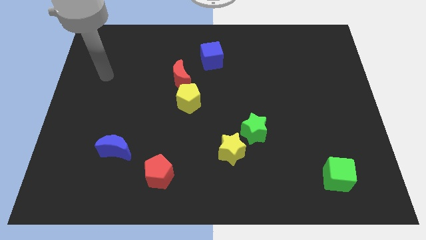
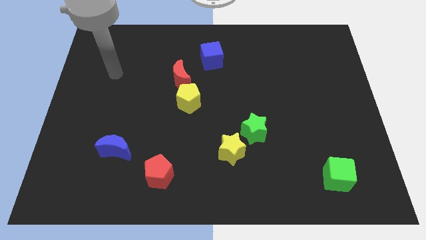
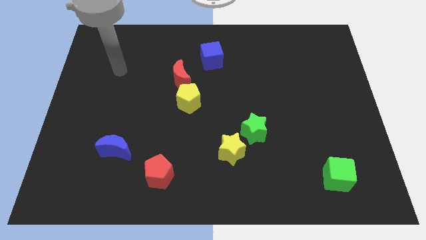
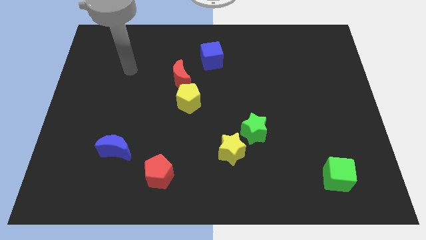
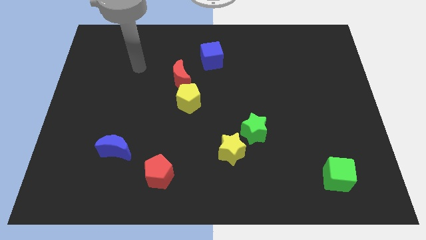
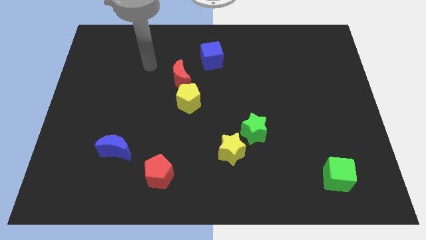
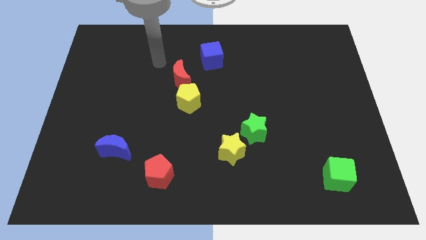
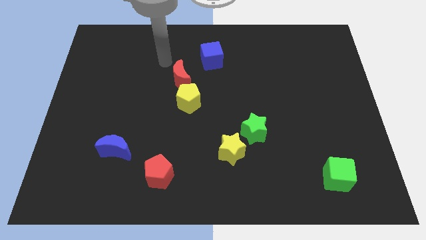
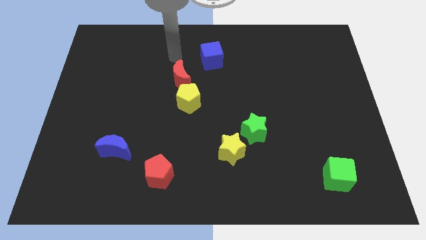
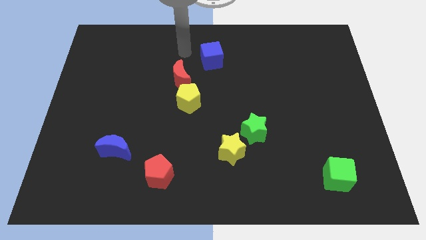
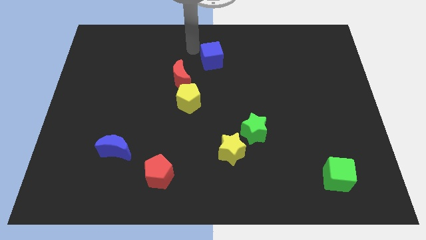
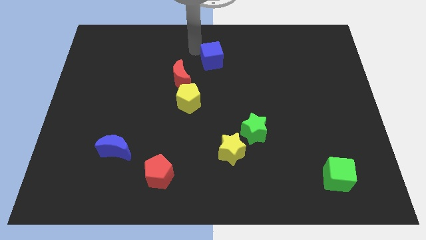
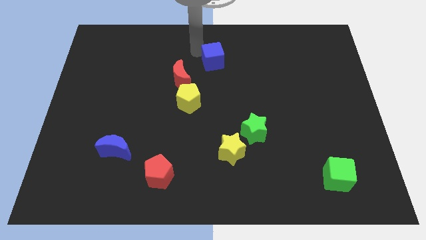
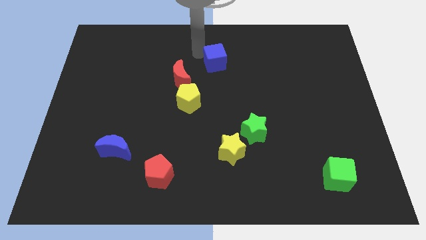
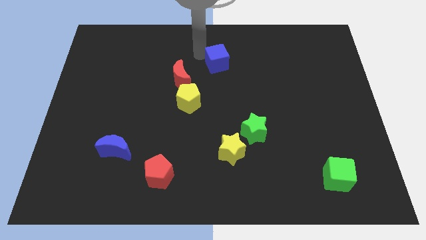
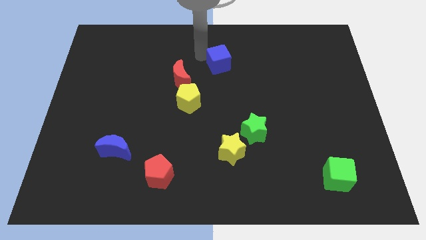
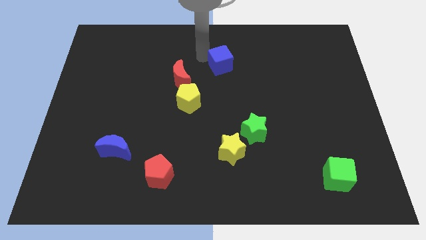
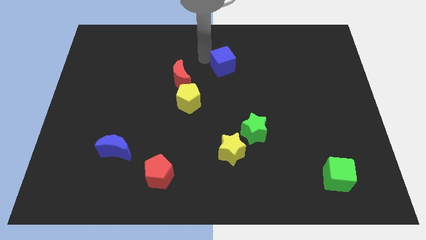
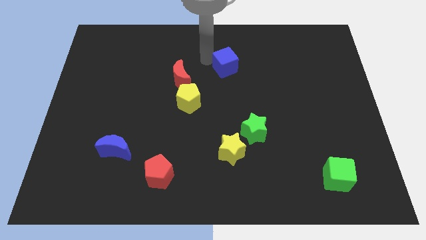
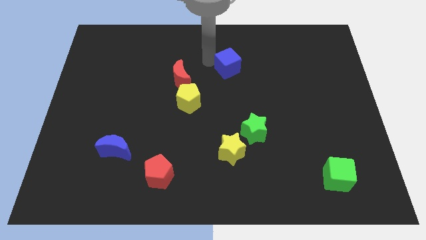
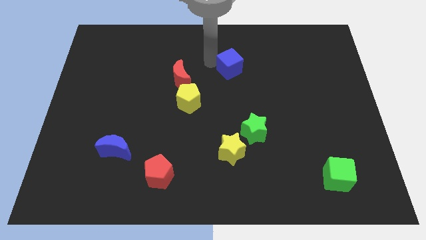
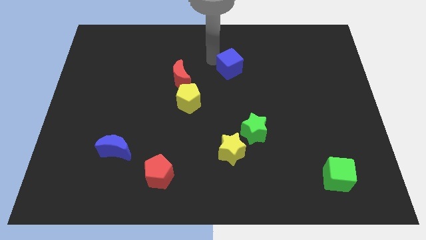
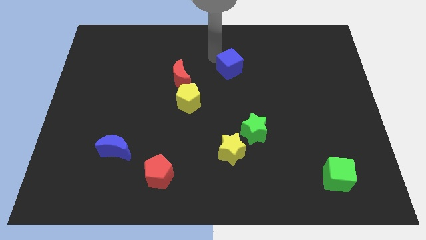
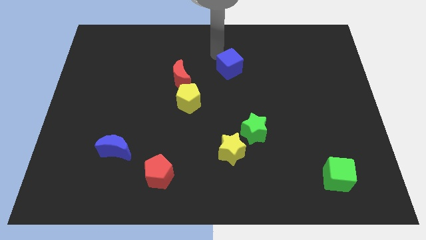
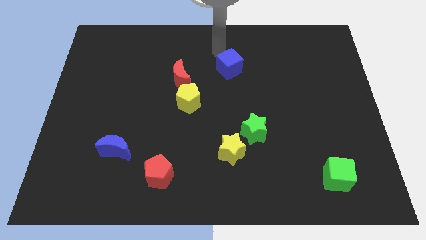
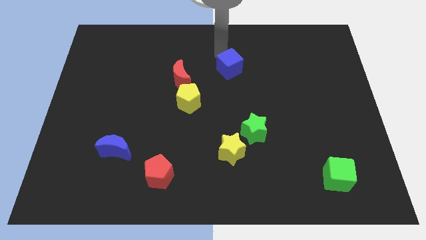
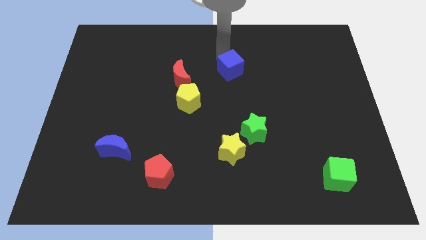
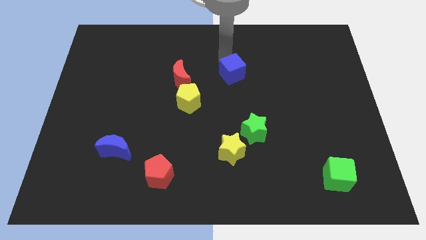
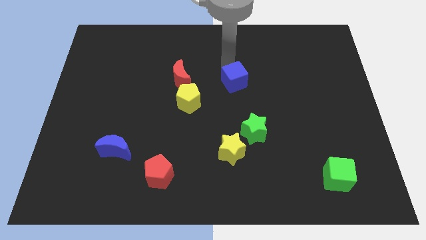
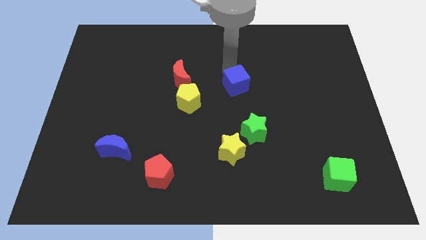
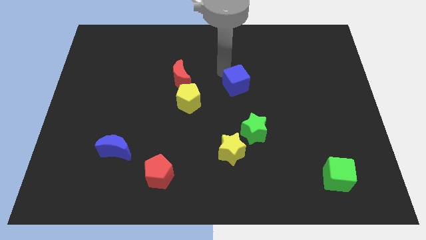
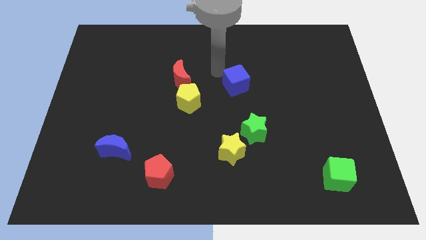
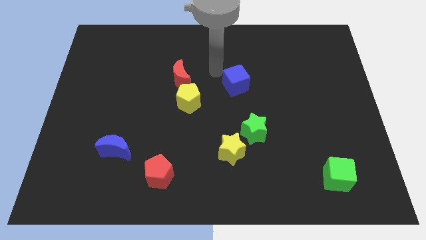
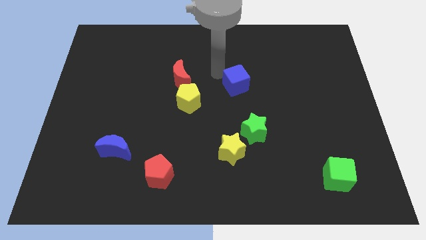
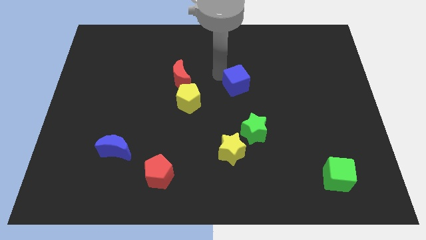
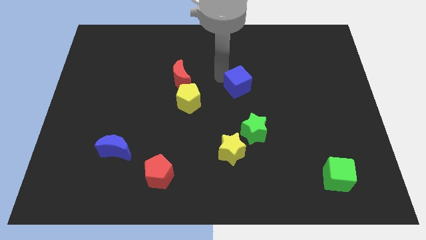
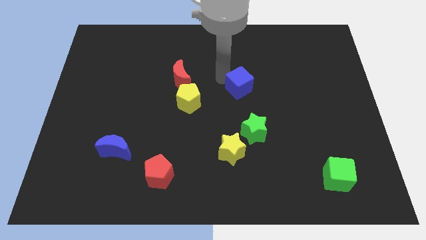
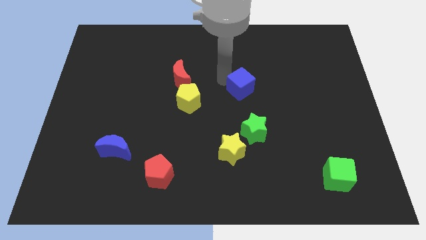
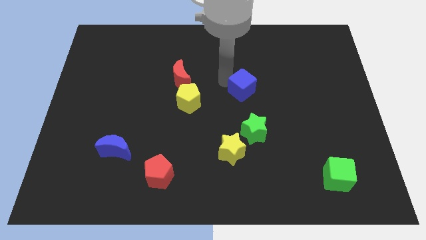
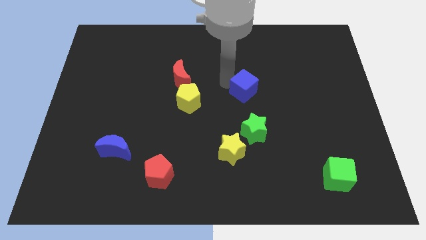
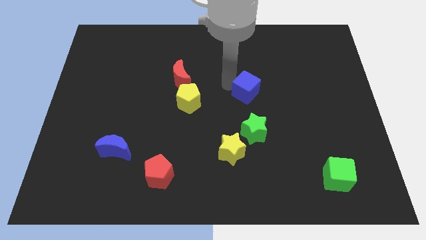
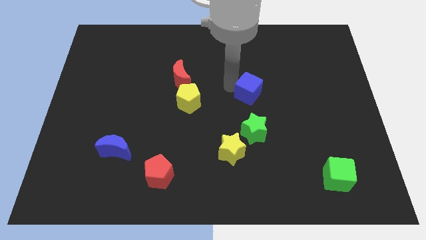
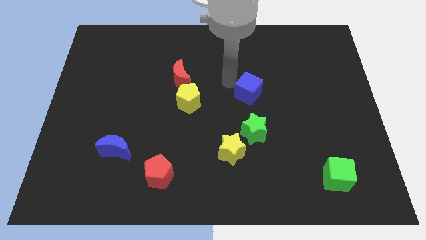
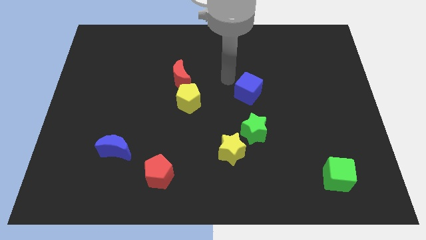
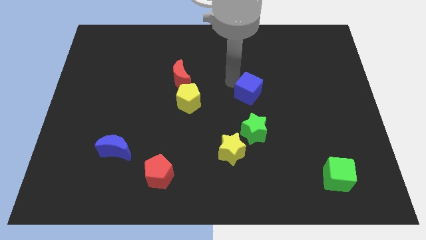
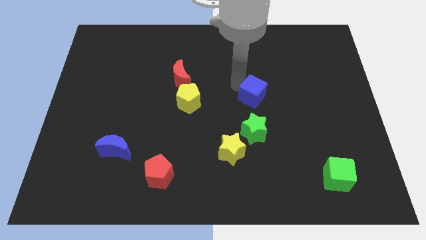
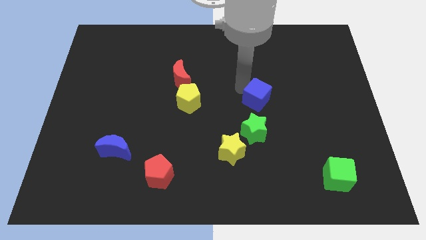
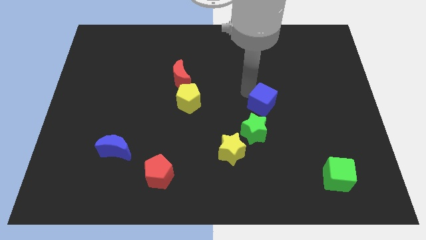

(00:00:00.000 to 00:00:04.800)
slide the blue cube to the top right side of the green star

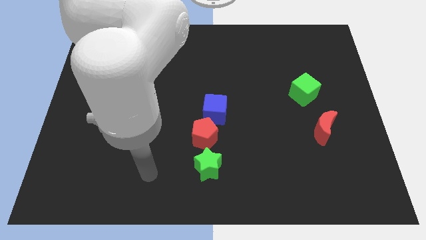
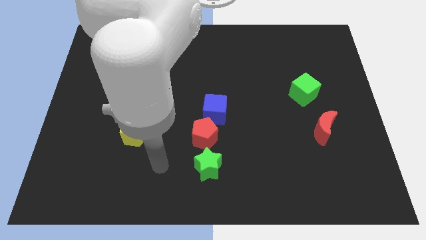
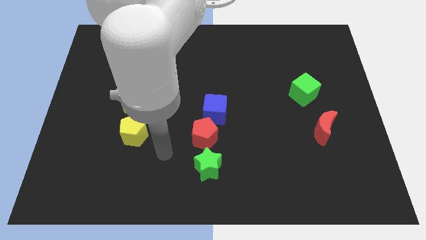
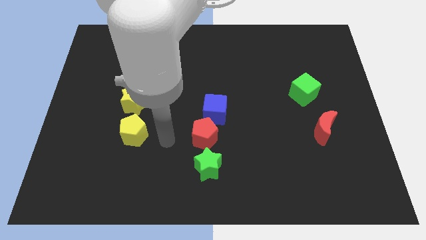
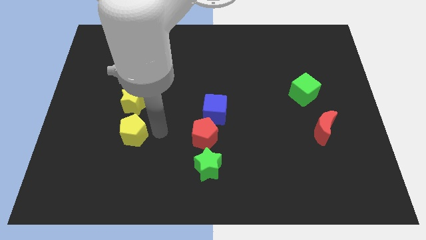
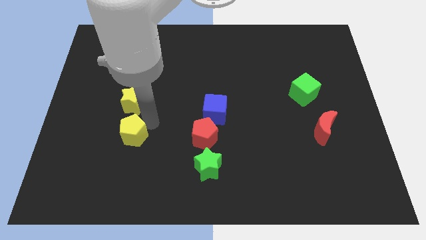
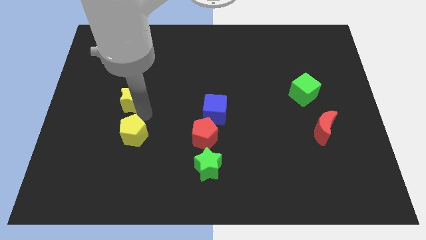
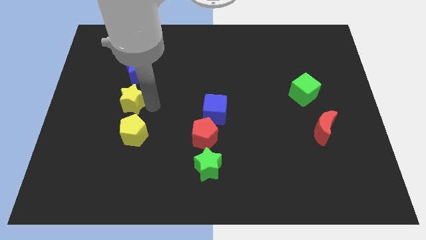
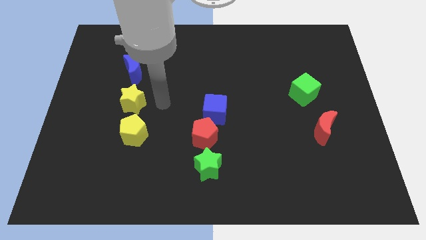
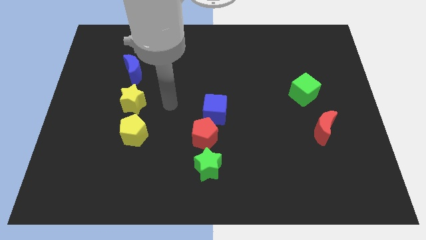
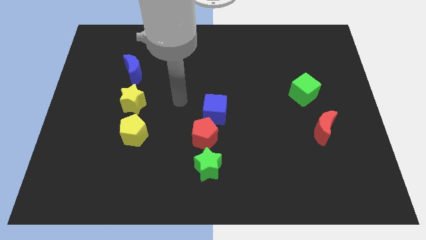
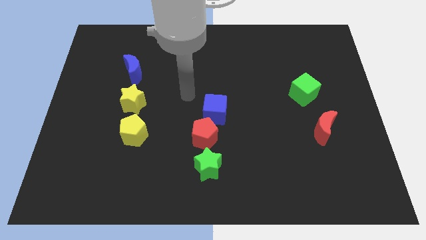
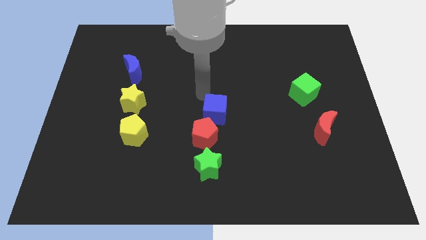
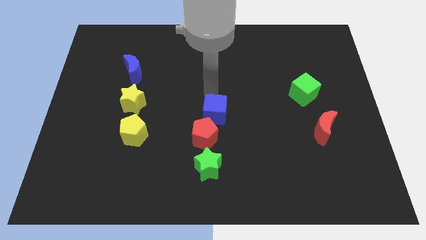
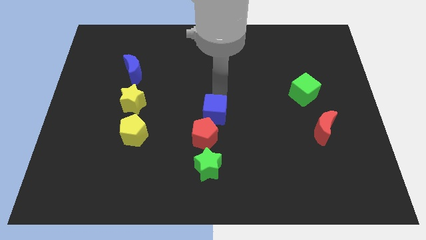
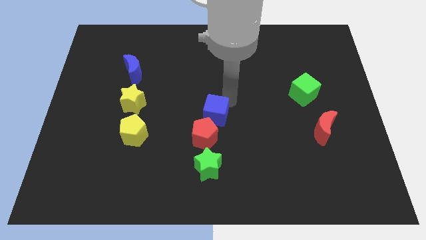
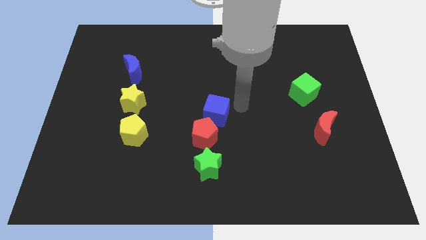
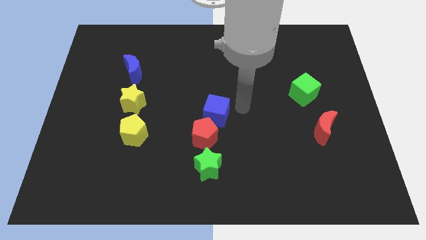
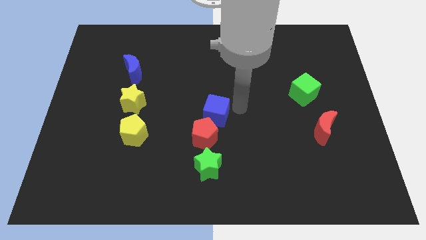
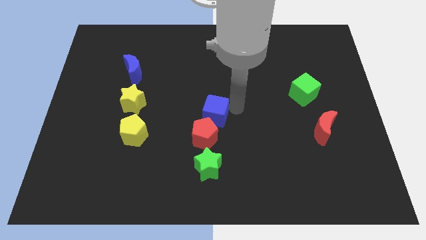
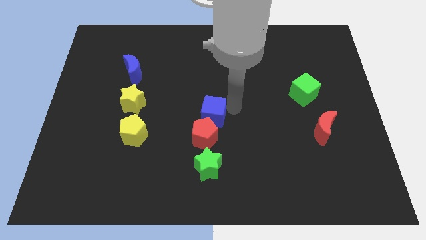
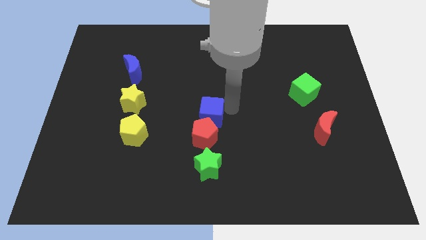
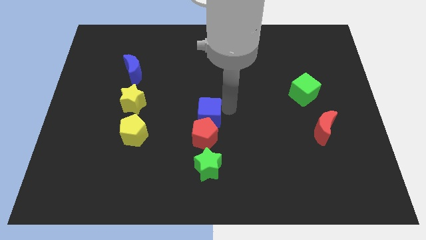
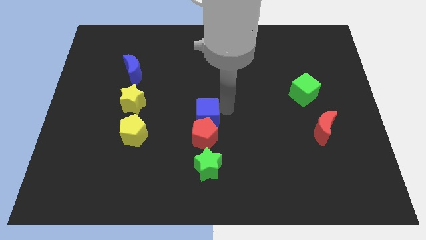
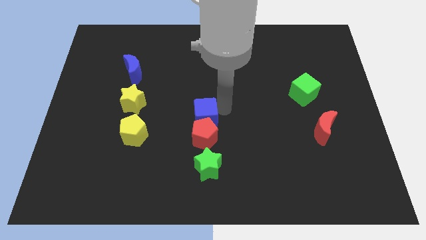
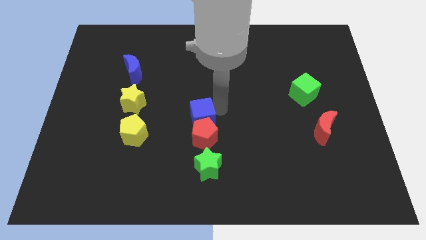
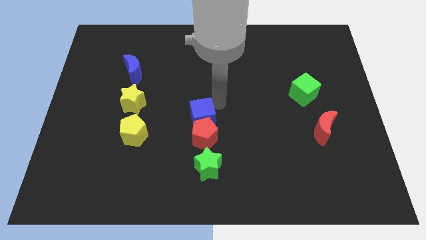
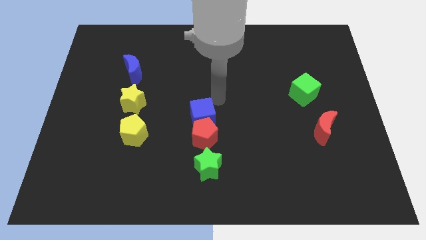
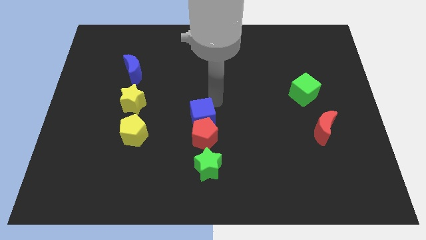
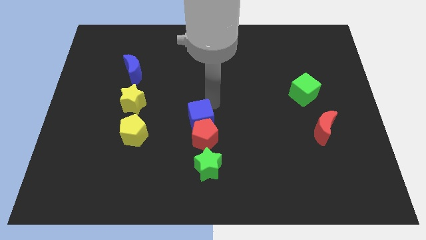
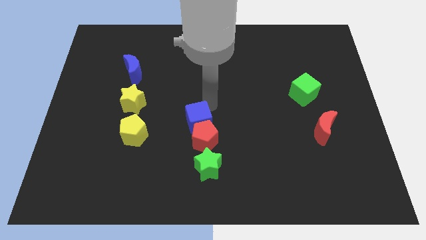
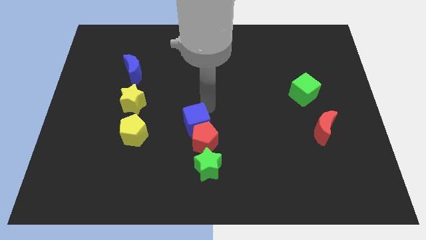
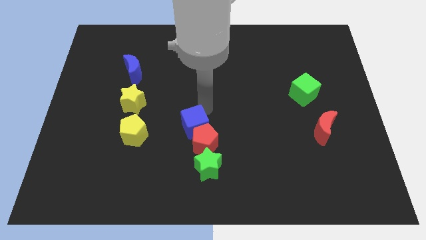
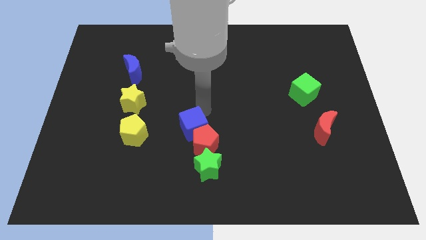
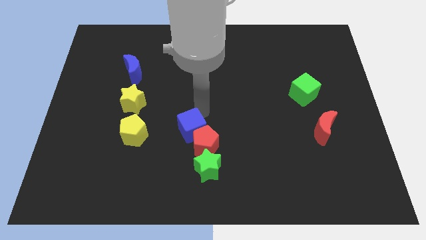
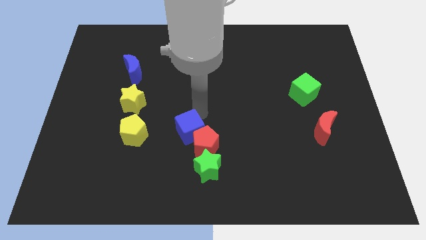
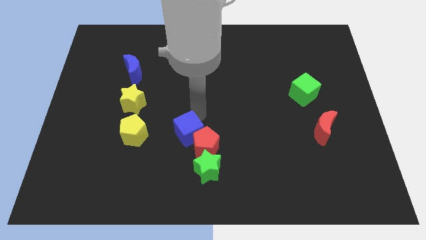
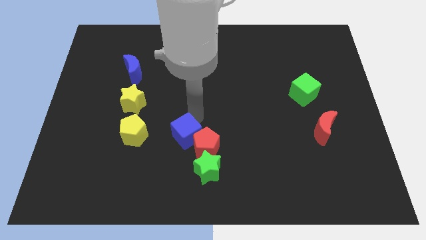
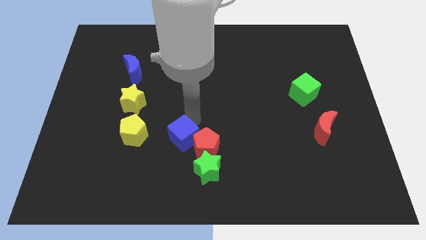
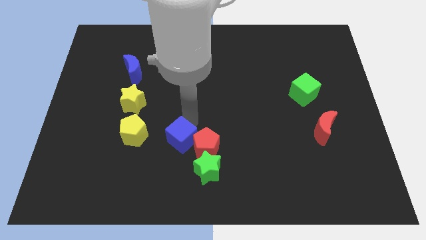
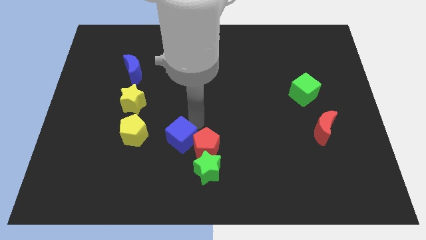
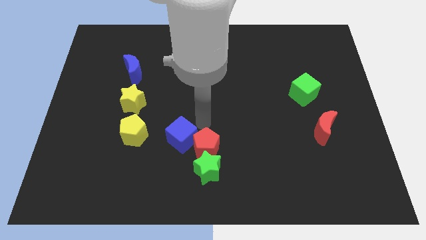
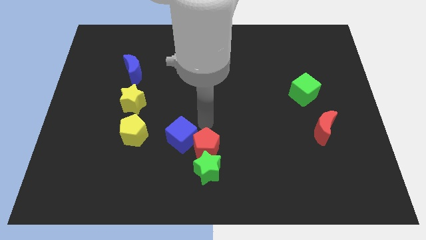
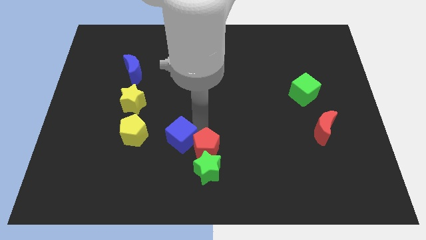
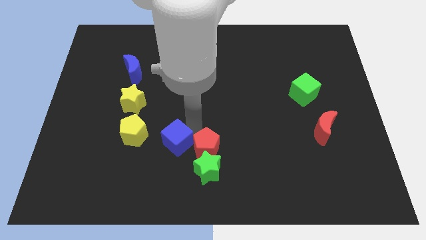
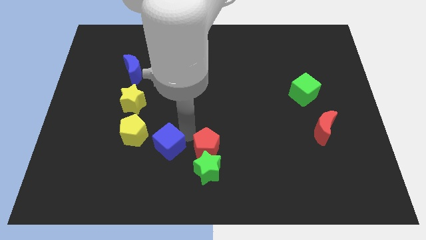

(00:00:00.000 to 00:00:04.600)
move the blue cube to the bottom right side of the yellow pentagon
